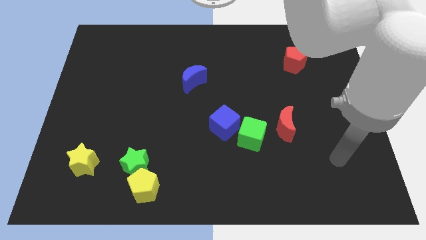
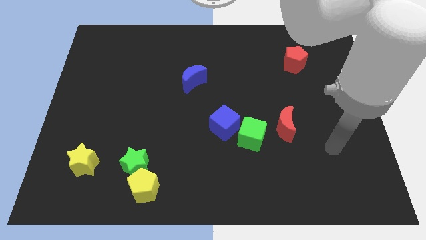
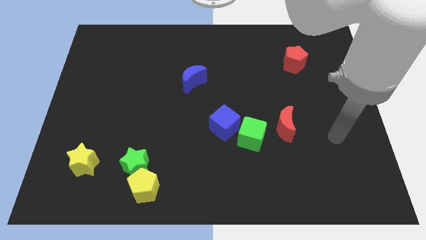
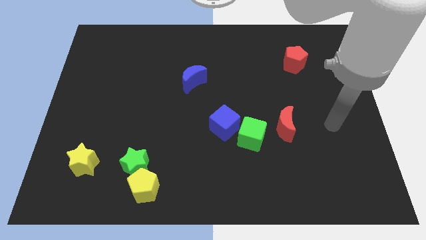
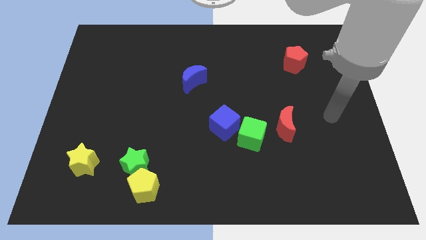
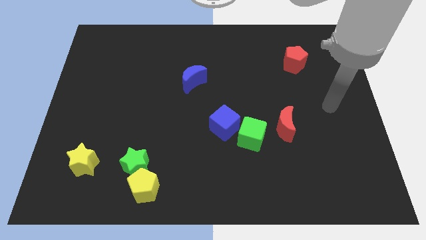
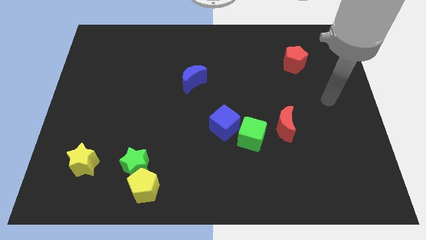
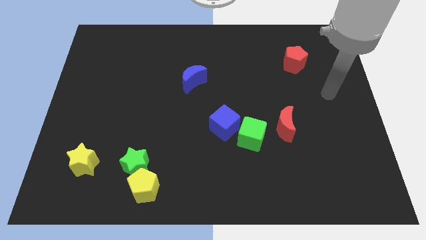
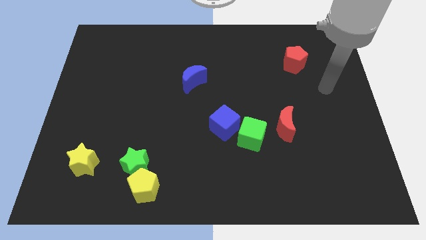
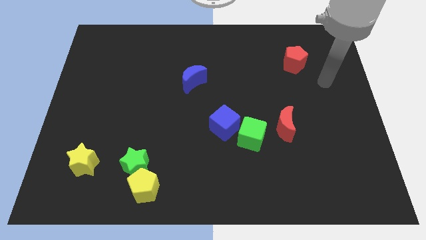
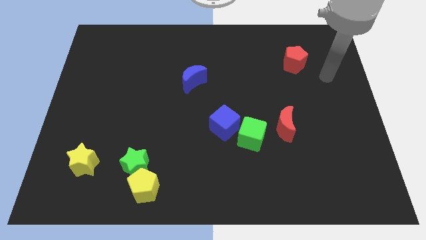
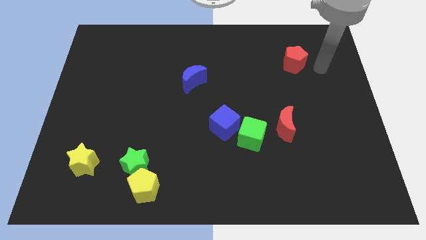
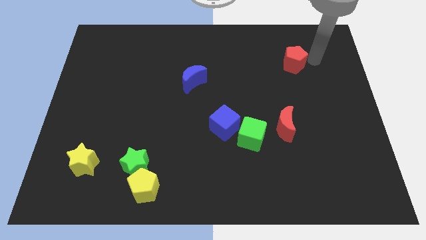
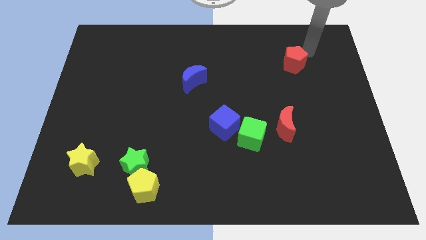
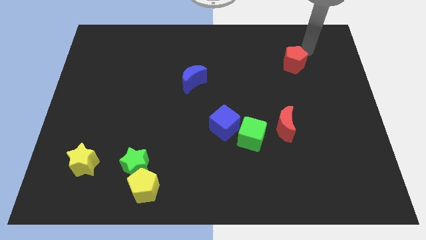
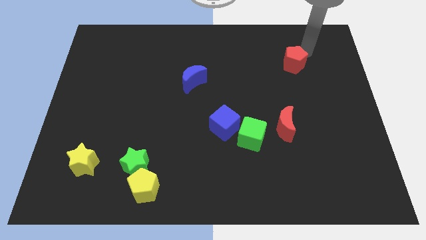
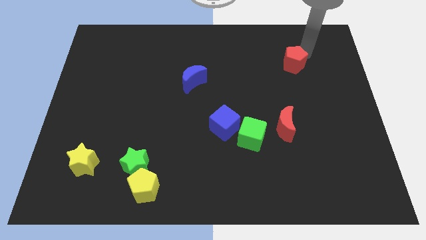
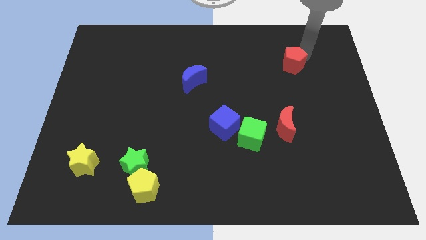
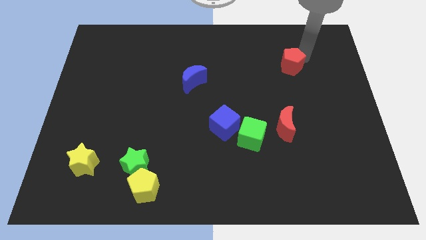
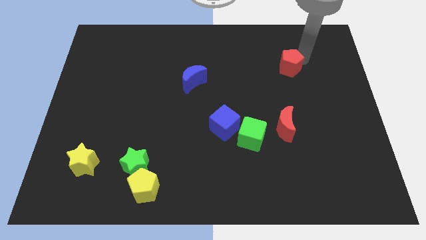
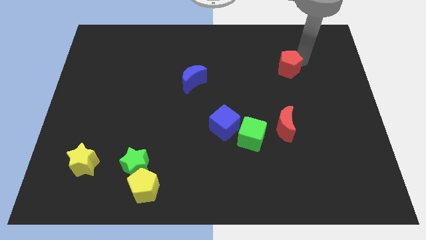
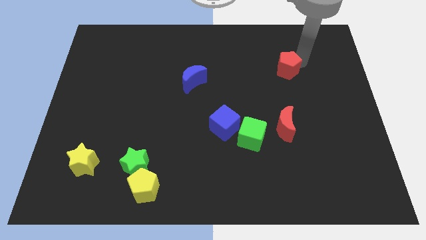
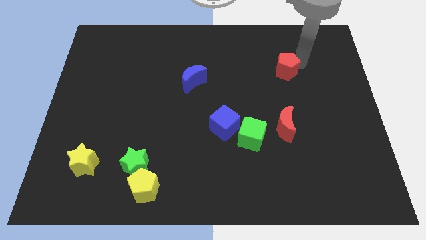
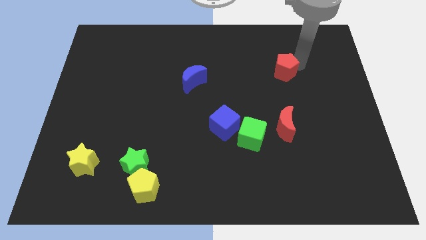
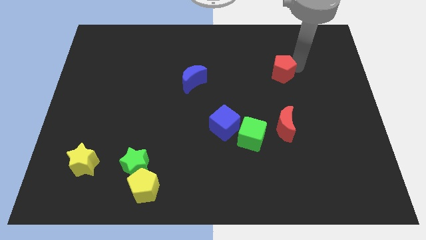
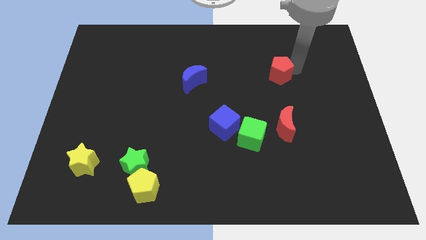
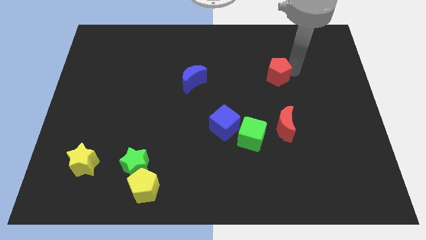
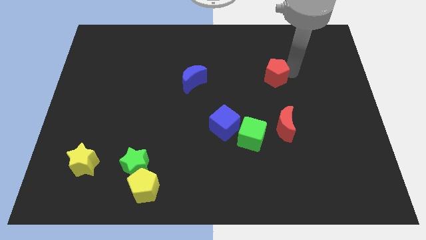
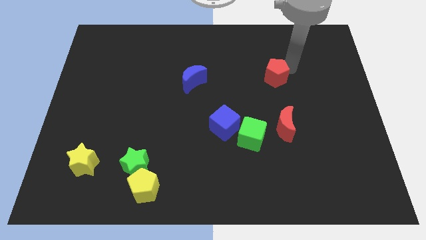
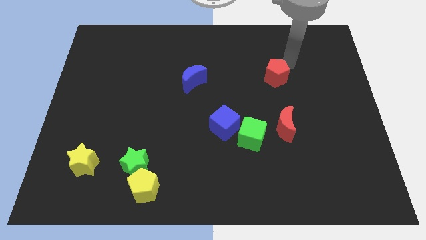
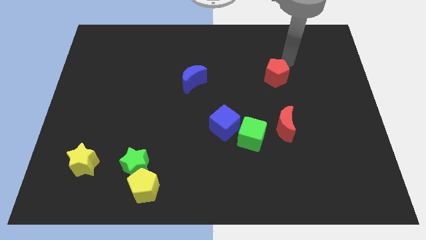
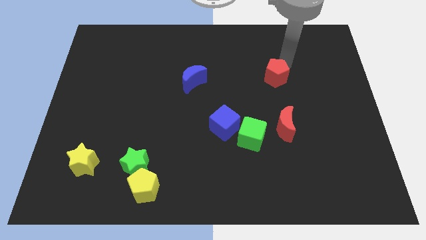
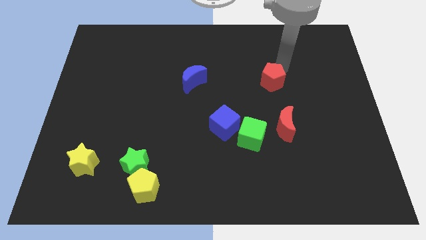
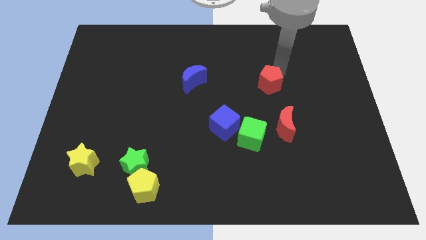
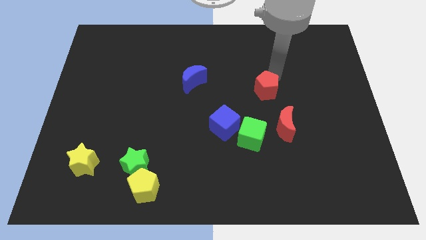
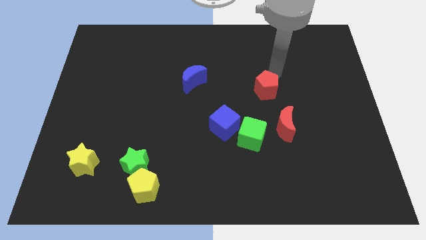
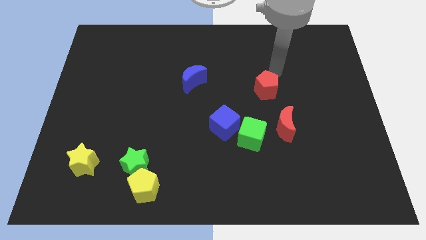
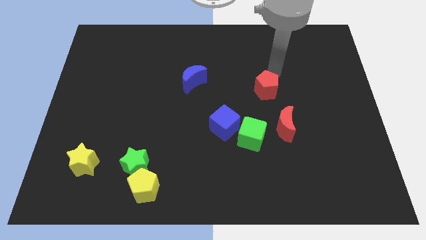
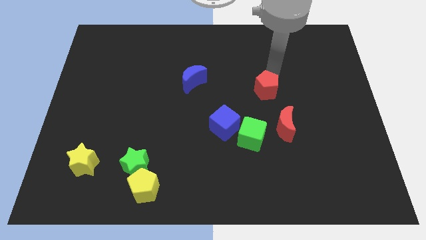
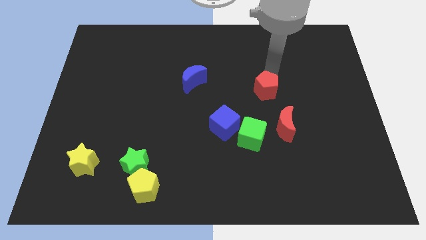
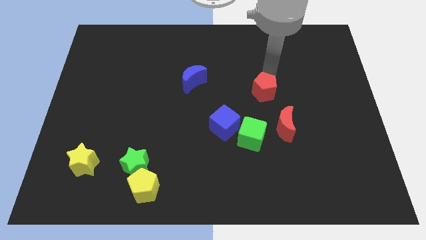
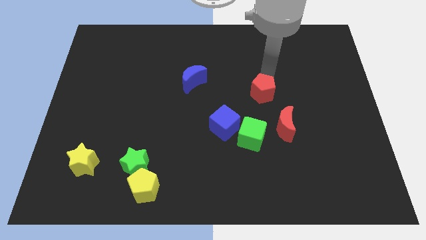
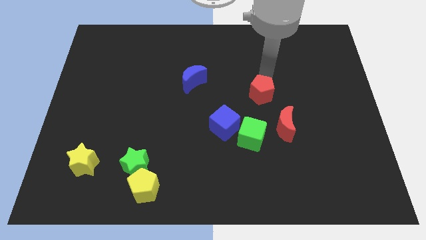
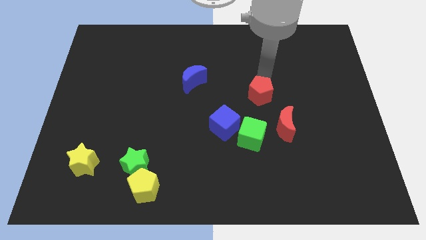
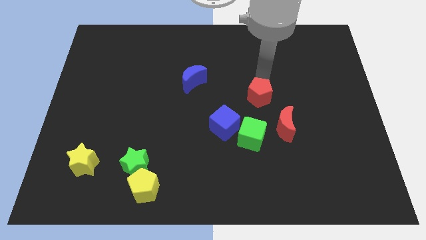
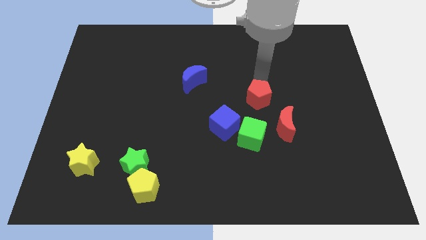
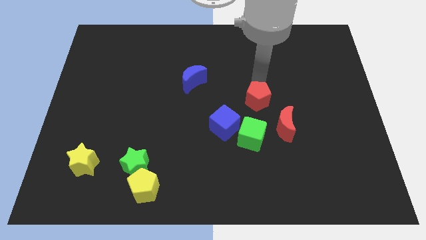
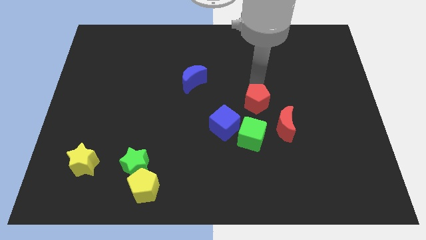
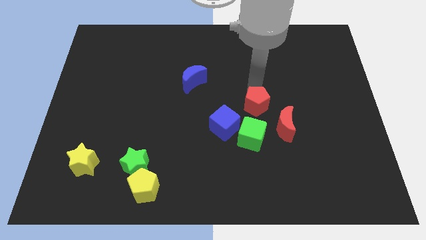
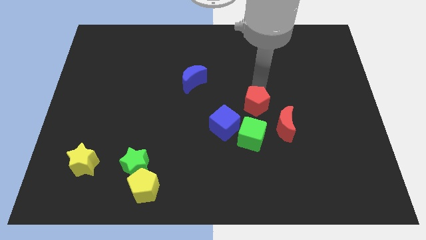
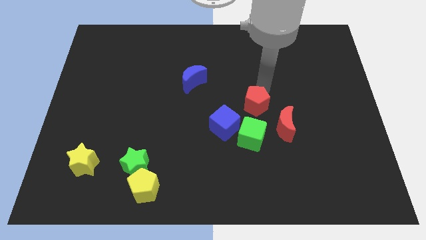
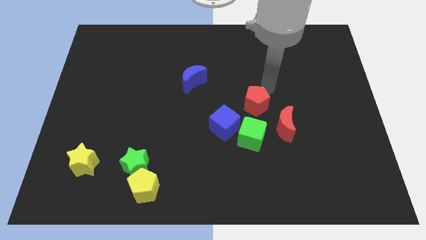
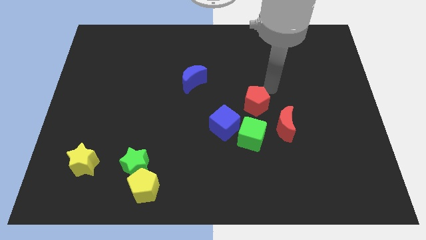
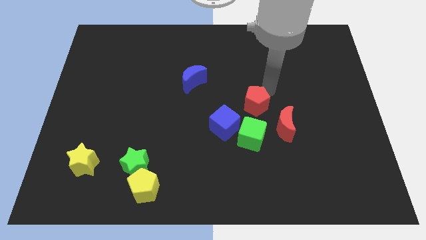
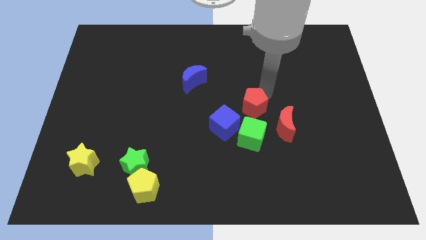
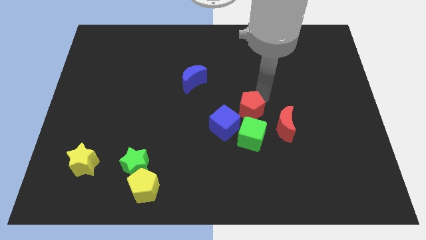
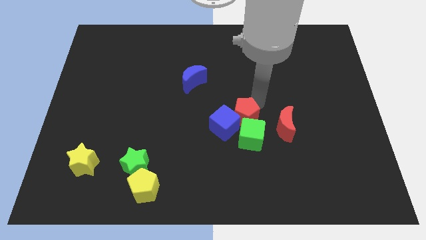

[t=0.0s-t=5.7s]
push the red pentagon close to the blue cube

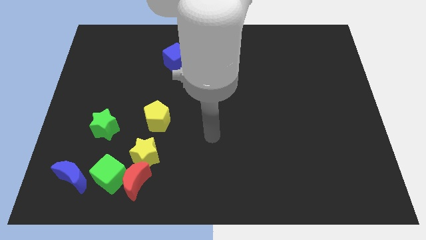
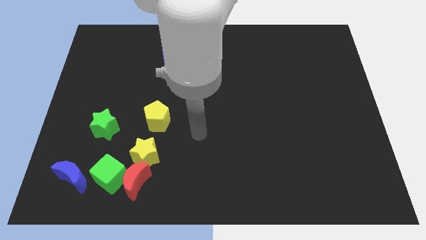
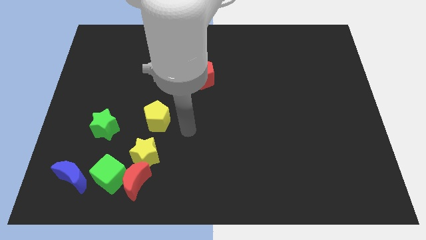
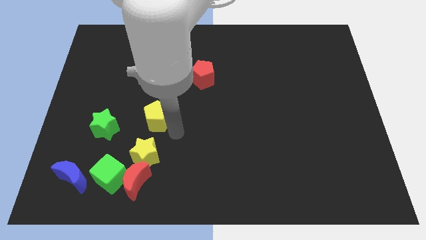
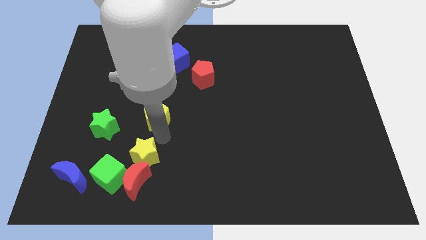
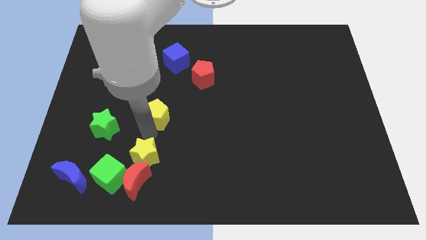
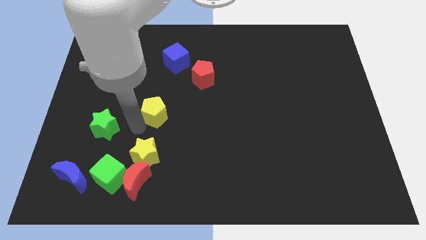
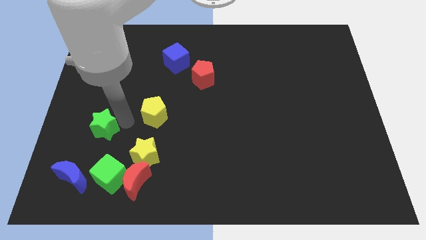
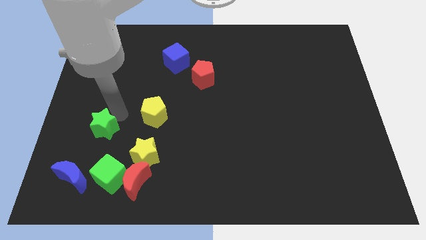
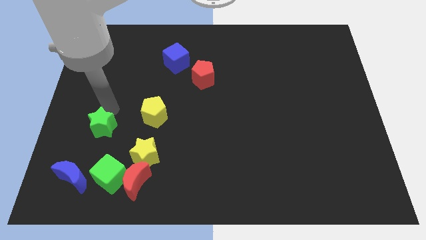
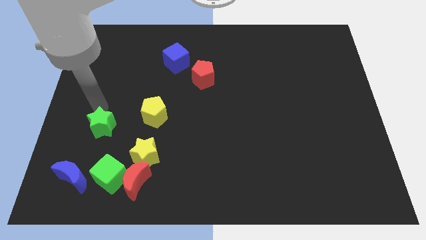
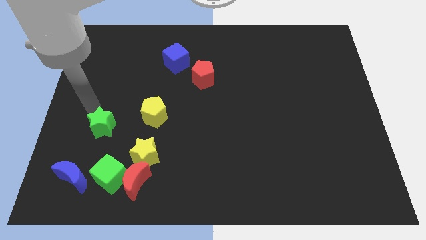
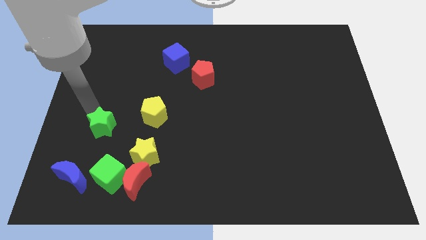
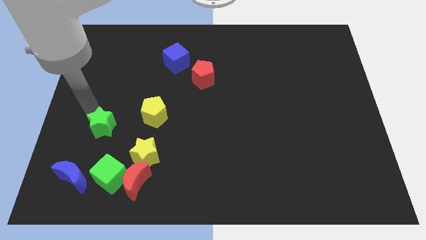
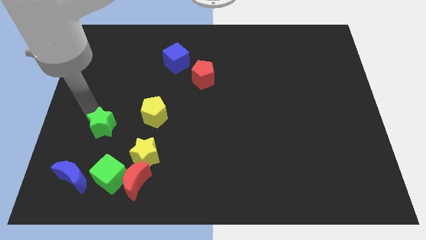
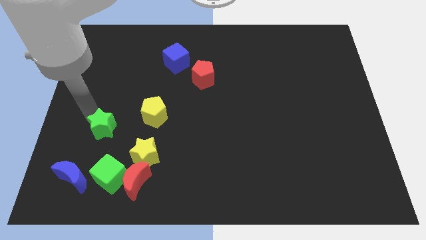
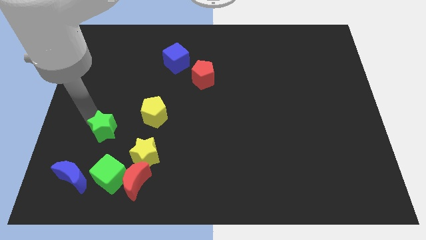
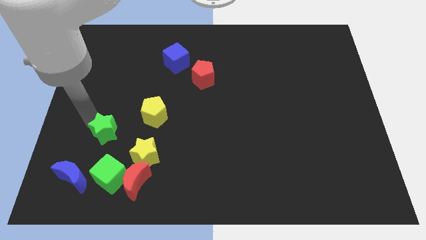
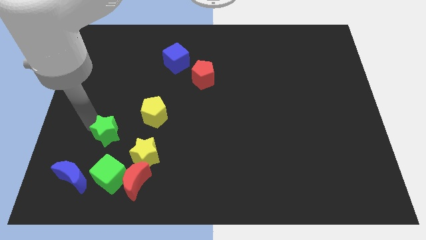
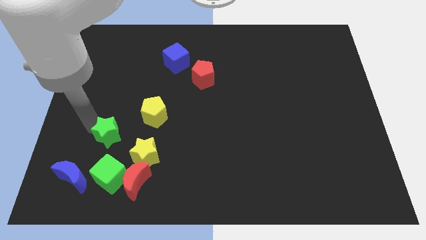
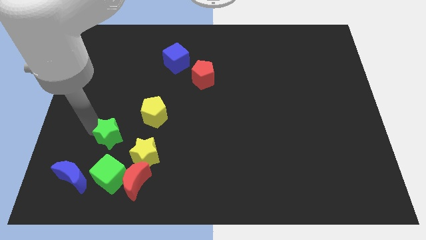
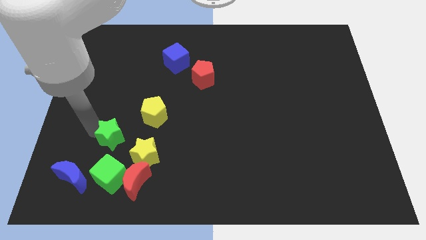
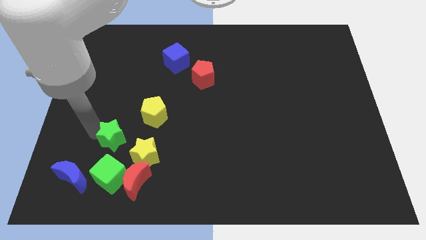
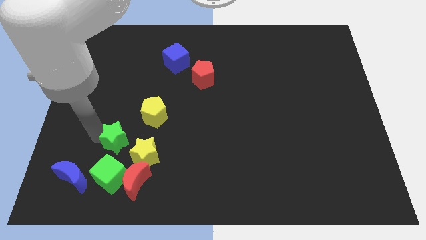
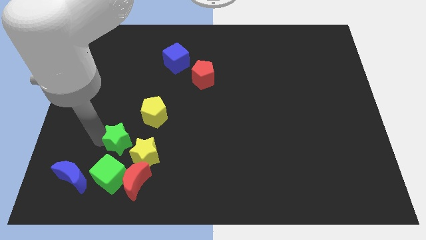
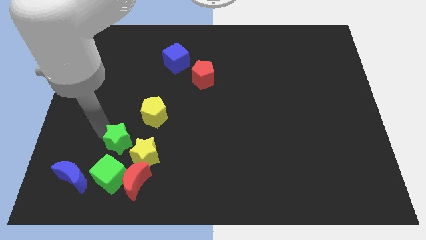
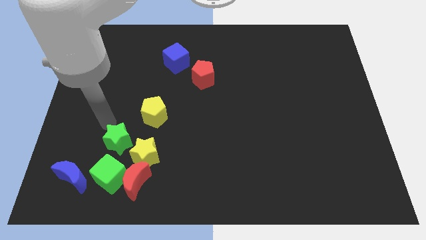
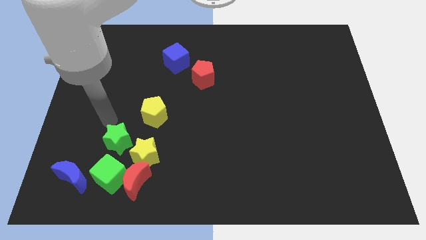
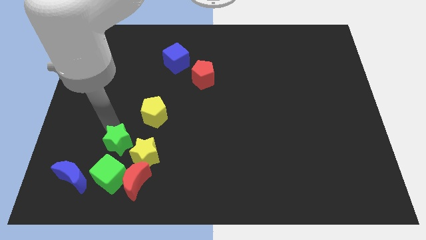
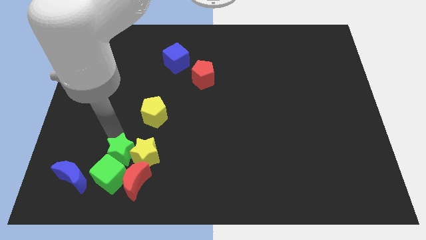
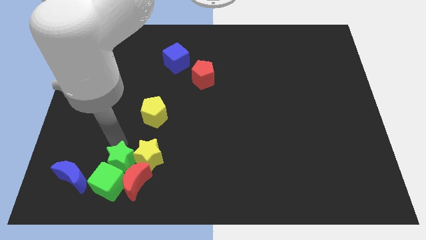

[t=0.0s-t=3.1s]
slide the green star to the red moon
